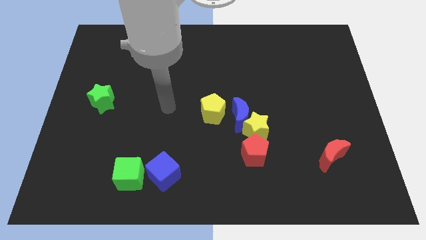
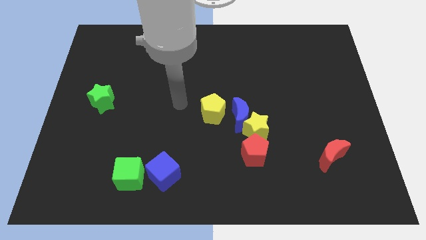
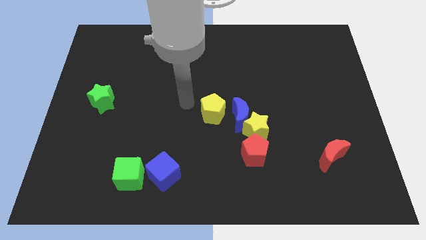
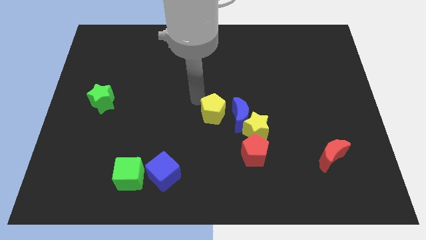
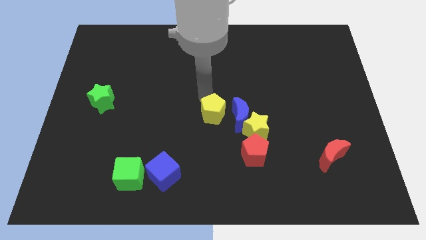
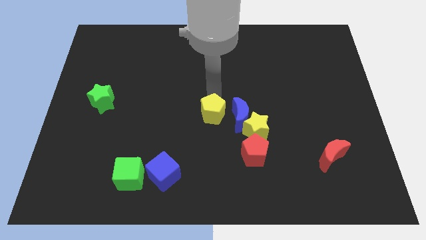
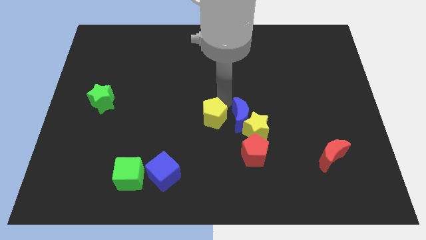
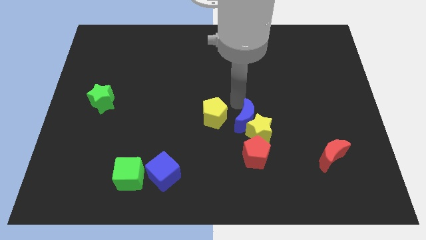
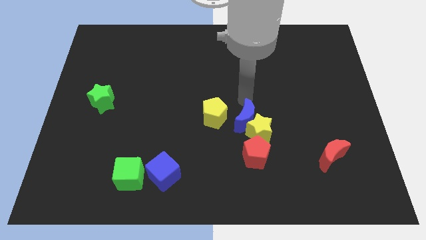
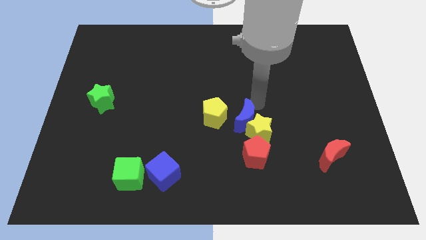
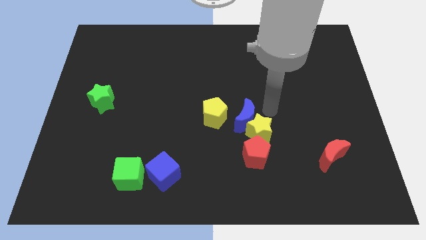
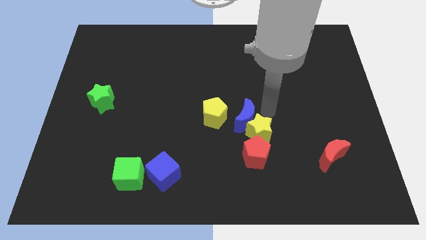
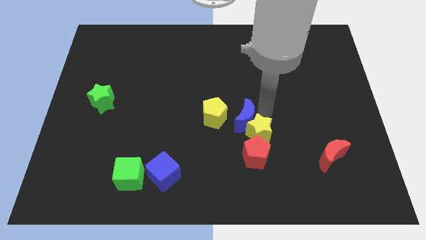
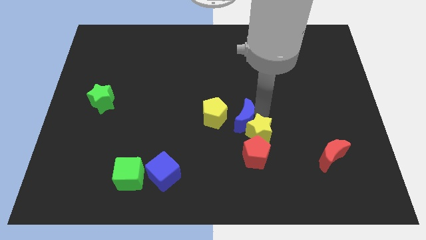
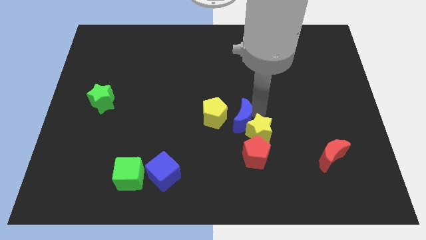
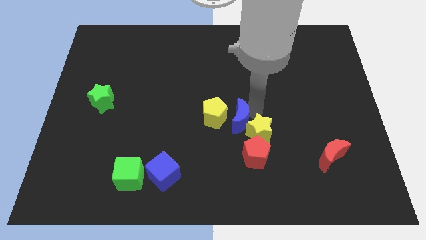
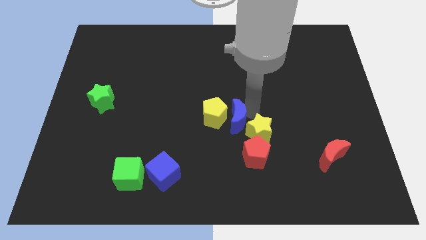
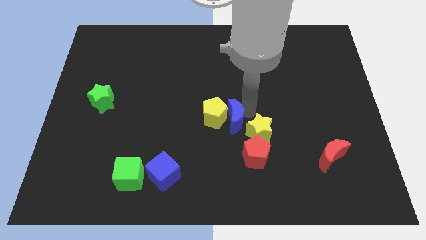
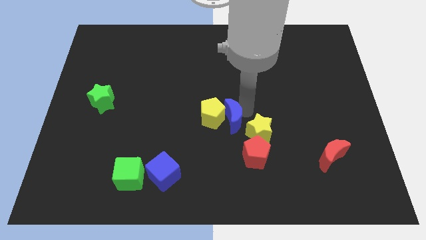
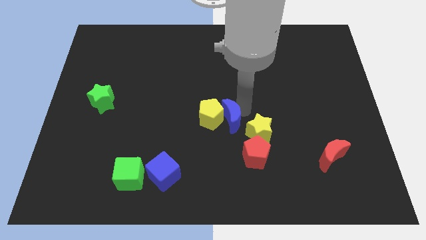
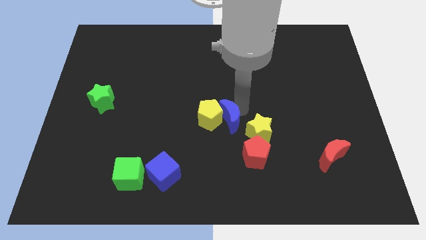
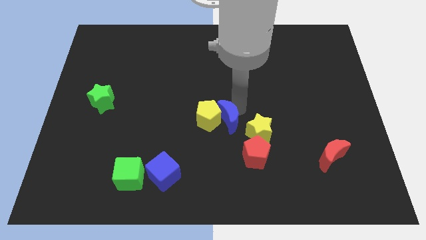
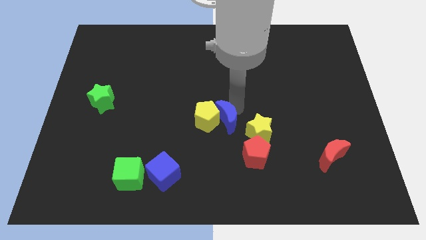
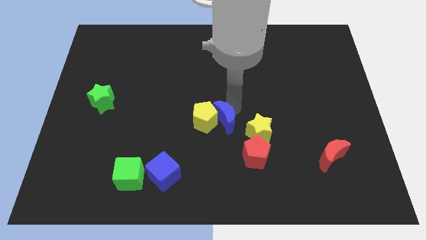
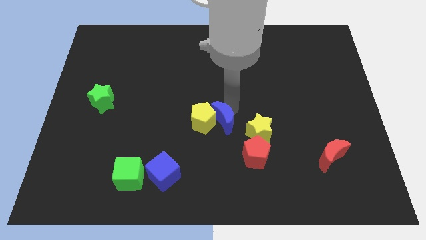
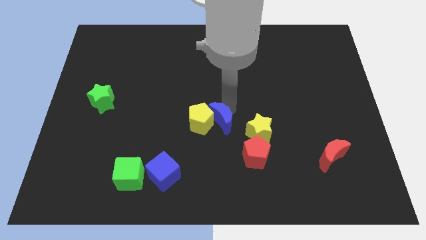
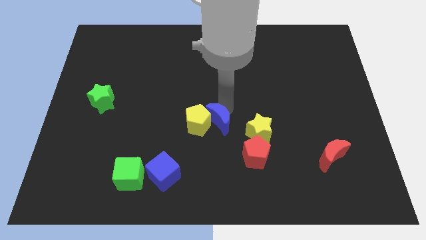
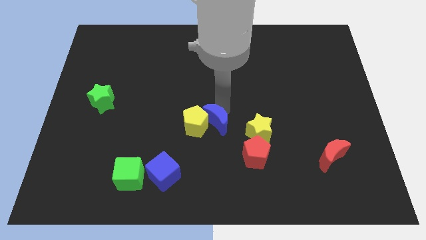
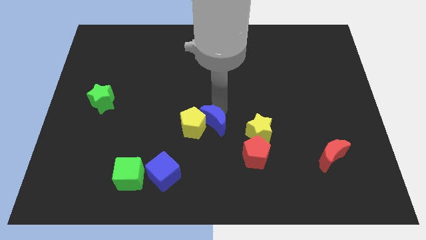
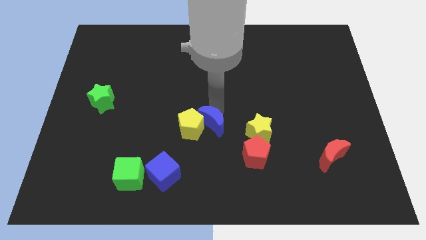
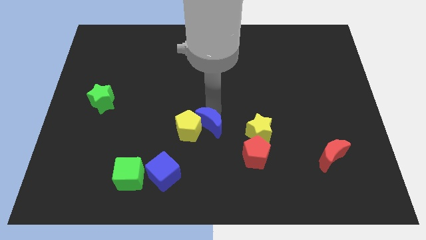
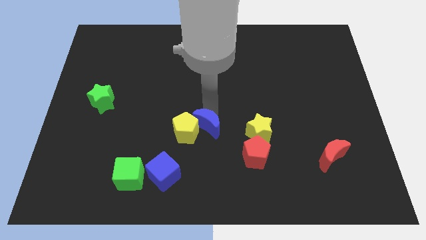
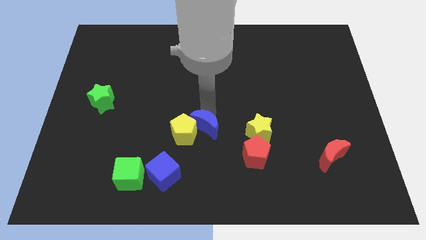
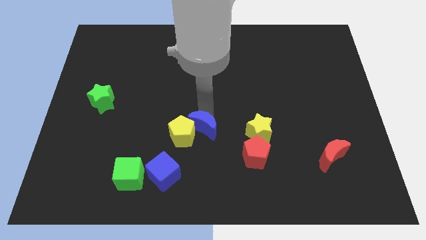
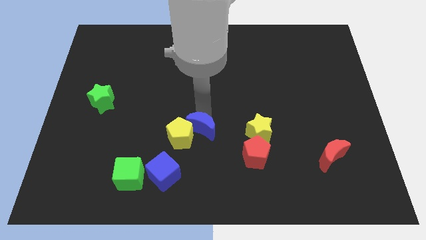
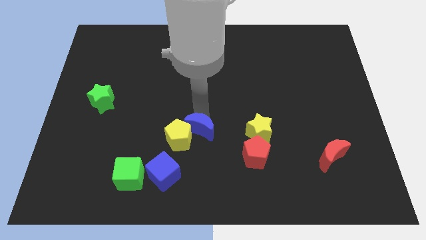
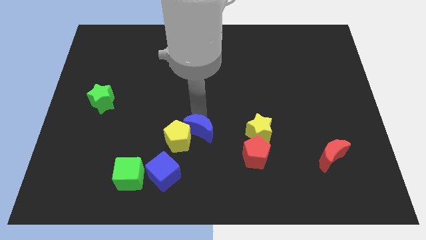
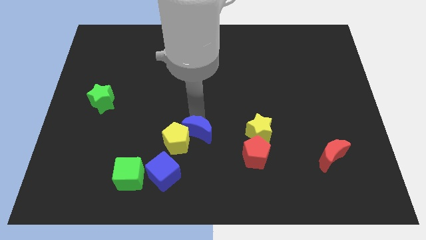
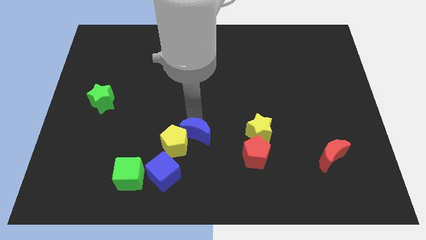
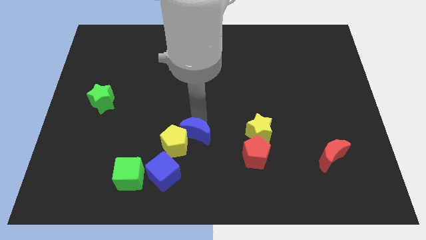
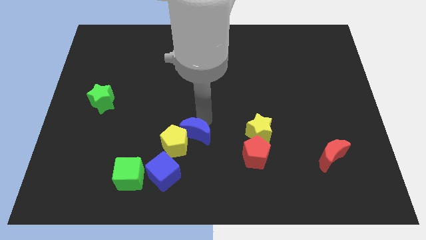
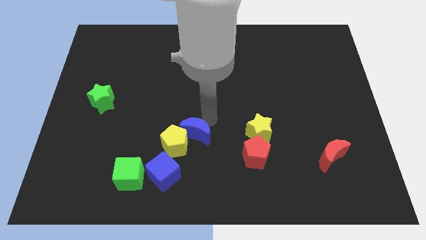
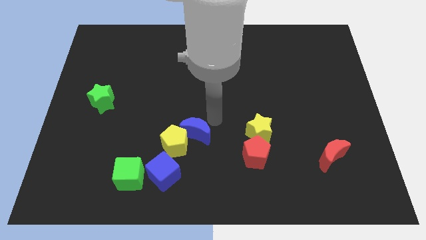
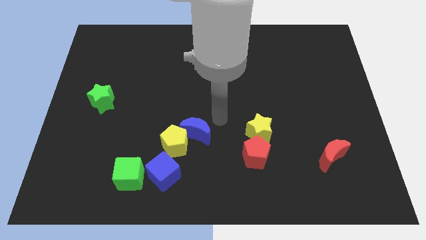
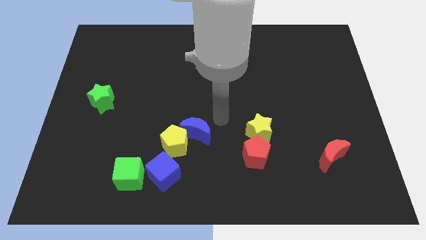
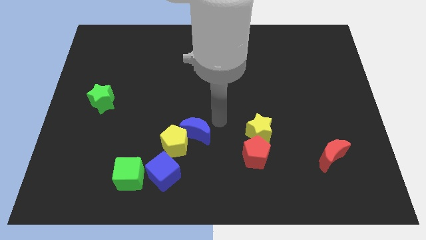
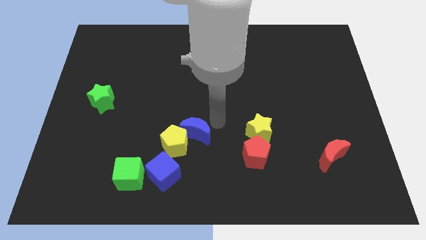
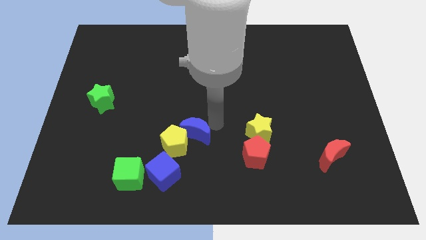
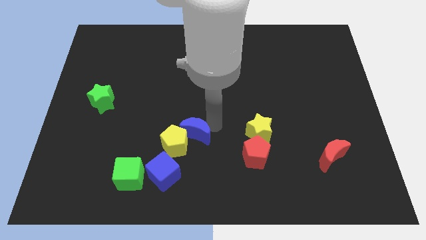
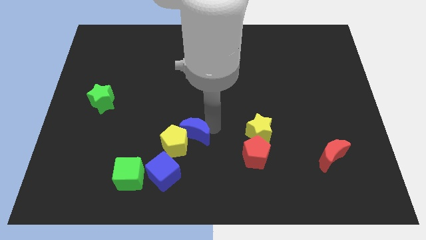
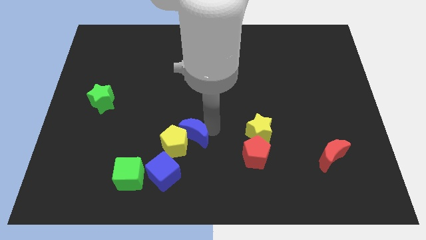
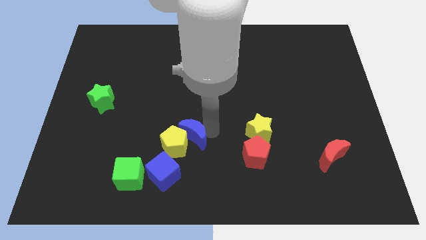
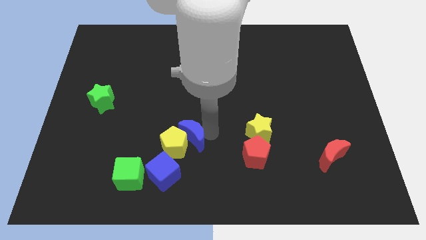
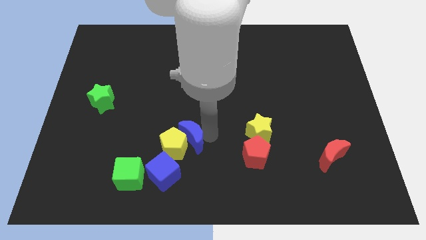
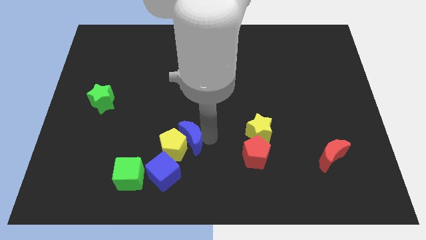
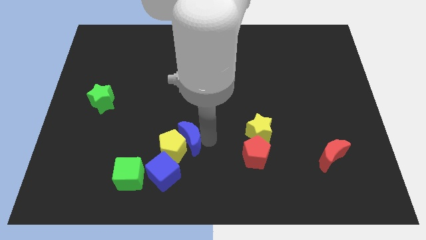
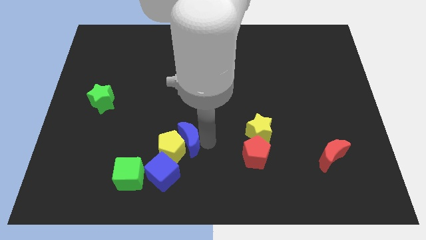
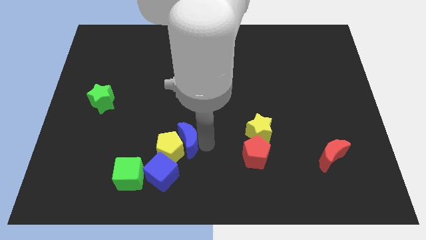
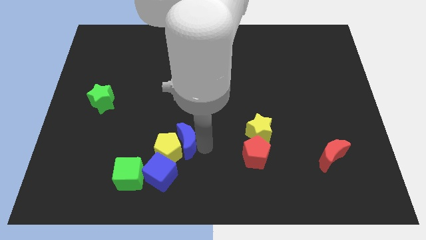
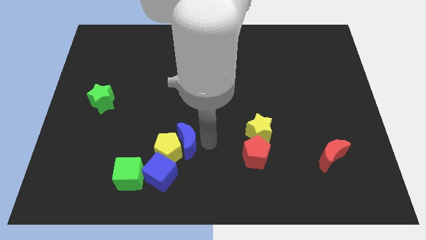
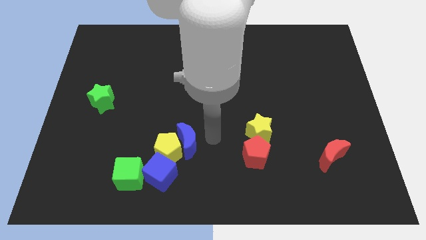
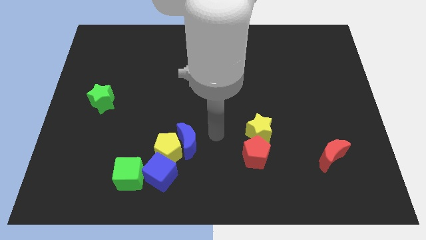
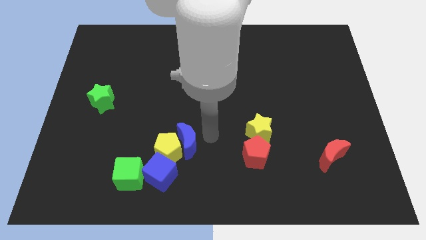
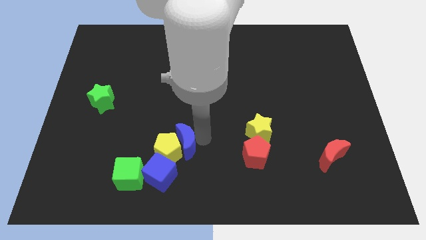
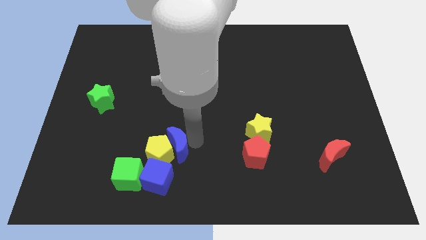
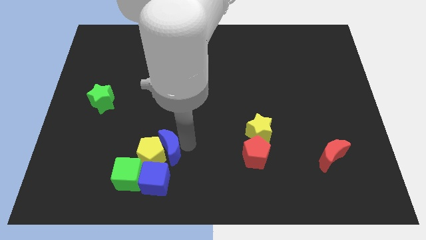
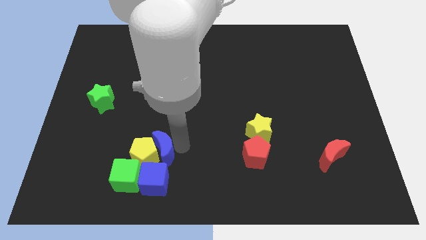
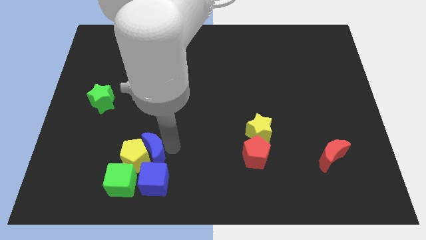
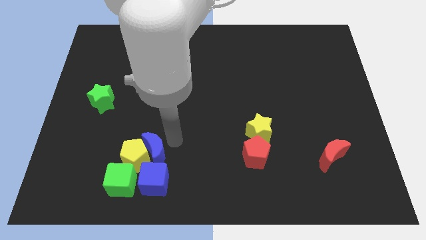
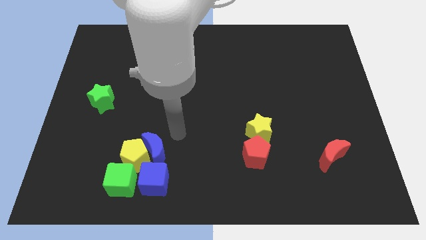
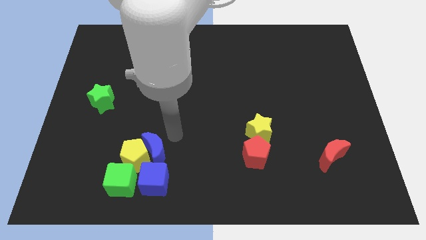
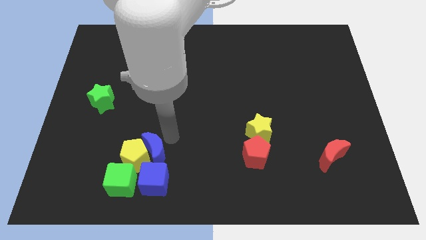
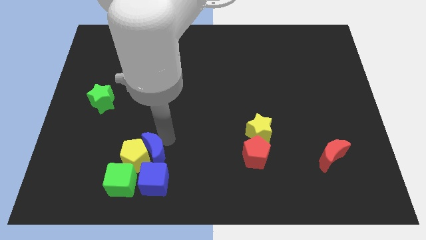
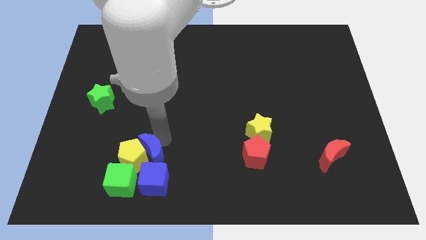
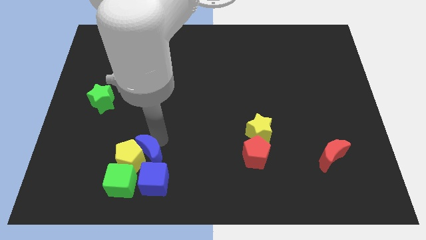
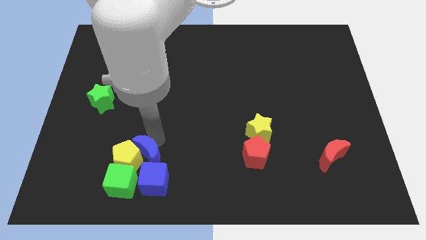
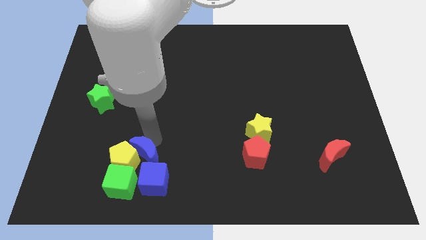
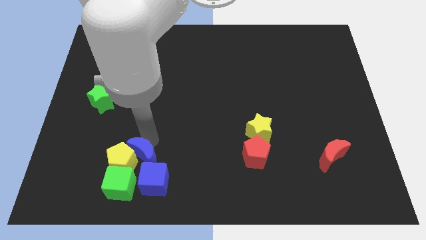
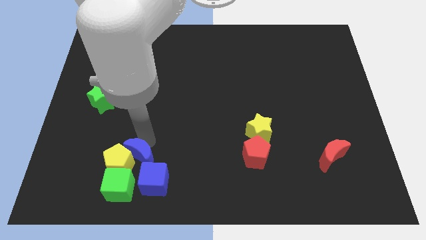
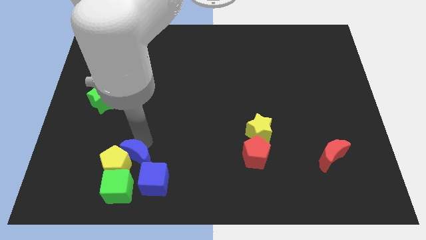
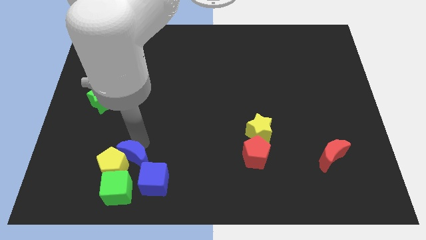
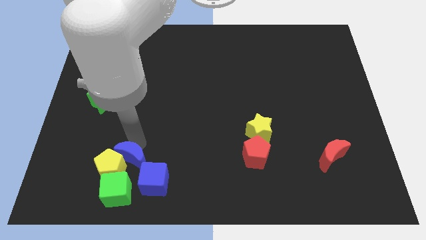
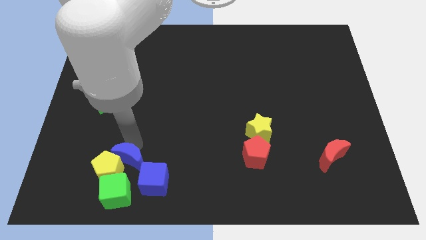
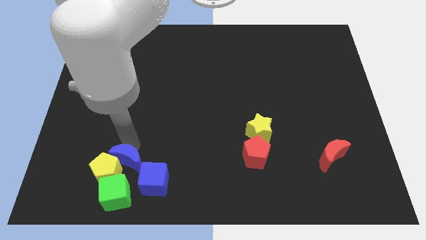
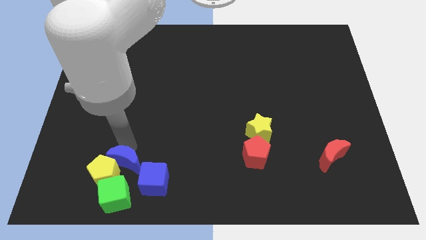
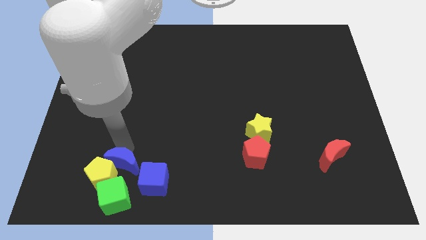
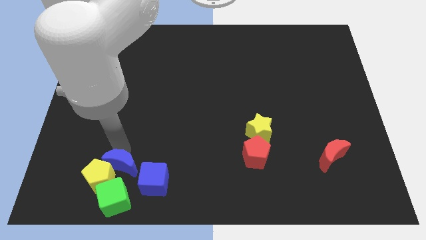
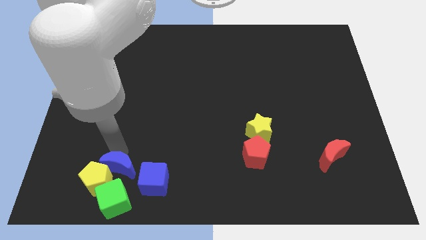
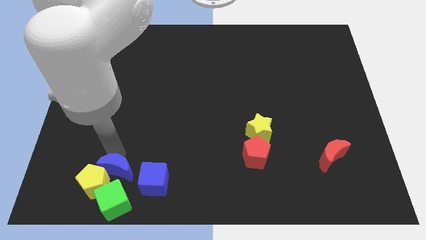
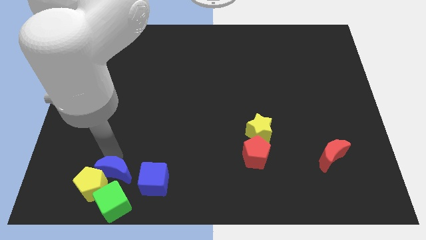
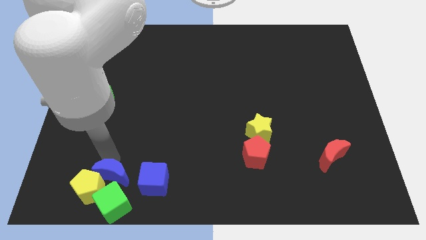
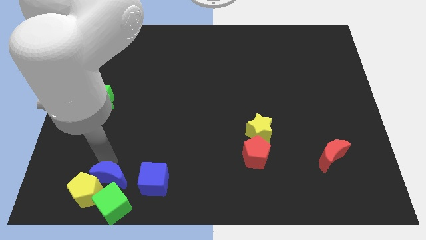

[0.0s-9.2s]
move the blue moon to the green cube
